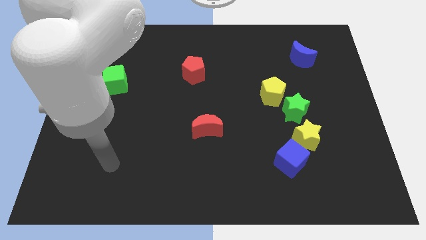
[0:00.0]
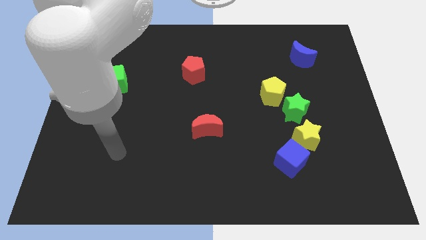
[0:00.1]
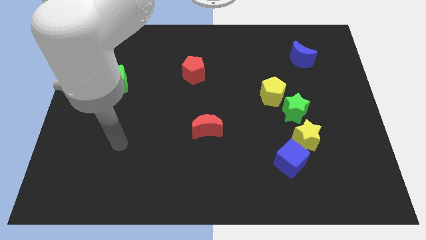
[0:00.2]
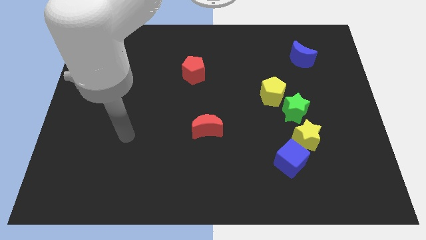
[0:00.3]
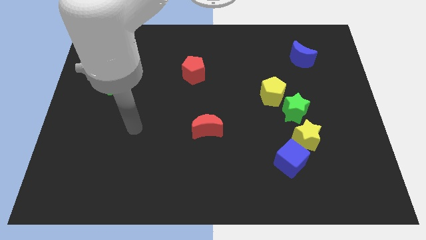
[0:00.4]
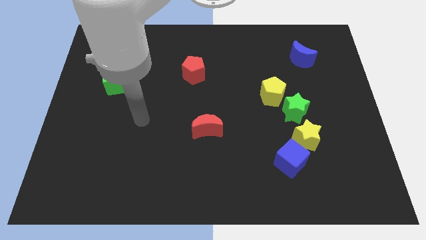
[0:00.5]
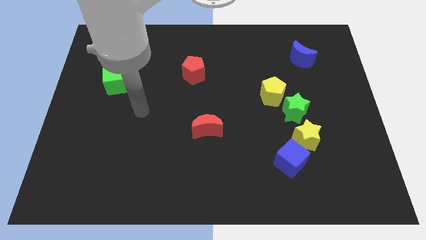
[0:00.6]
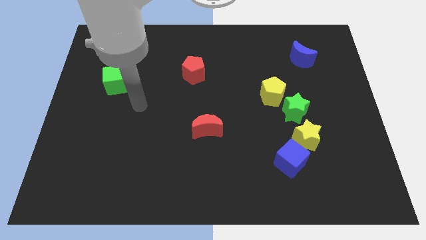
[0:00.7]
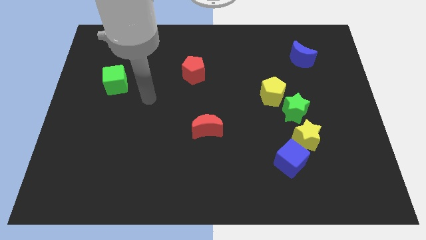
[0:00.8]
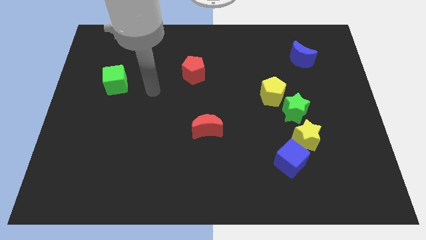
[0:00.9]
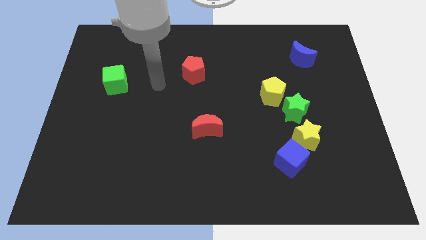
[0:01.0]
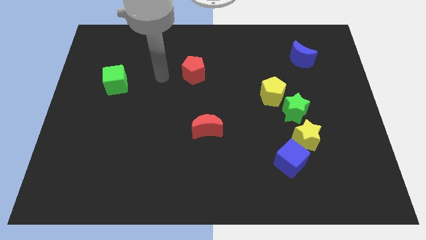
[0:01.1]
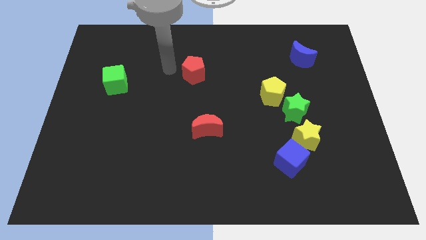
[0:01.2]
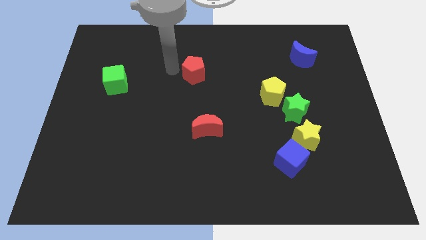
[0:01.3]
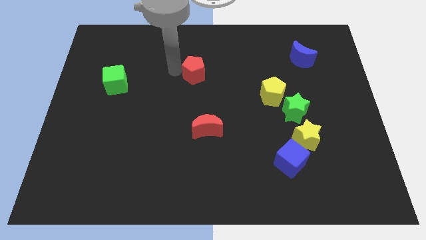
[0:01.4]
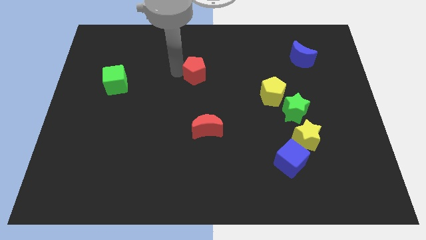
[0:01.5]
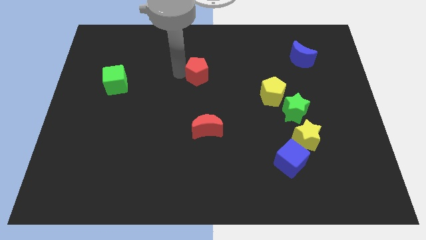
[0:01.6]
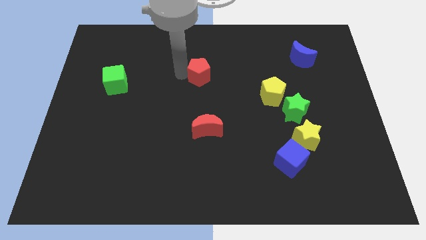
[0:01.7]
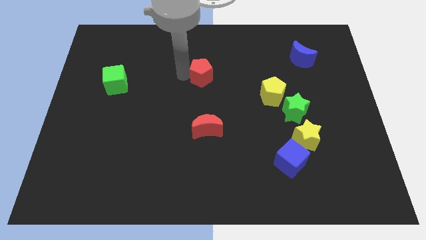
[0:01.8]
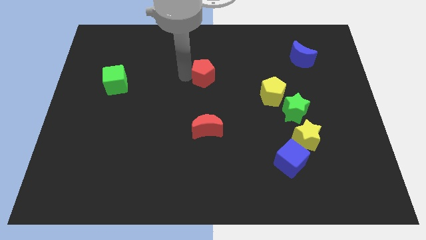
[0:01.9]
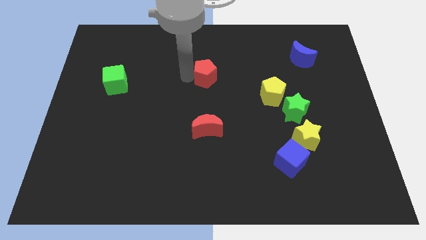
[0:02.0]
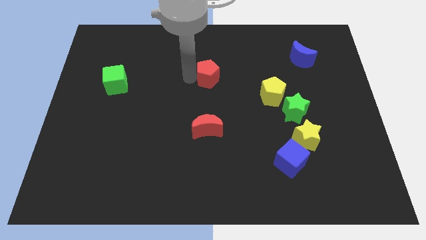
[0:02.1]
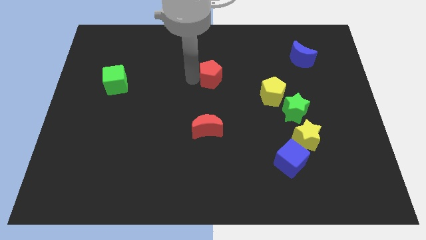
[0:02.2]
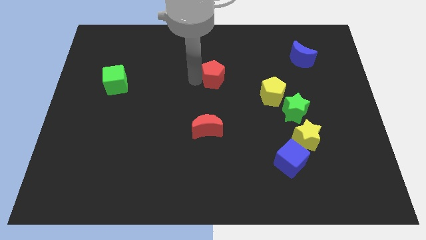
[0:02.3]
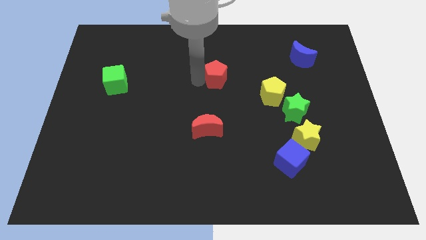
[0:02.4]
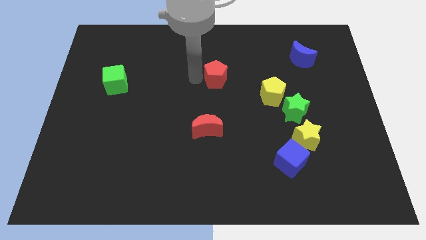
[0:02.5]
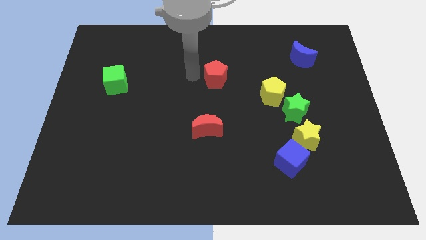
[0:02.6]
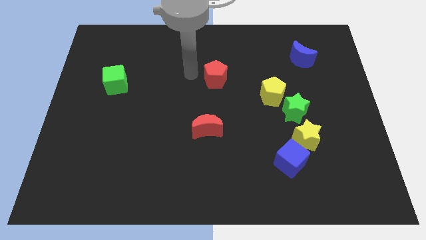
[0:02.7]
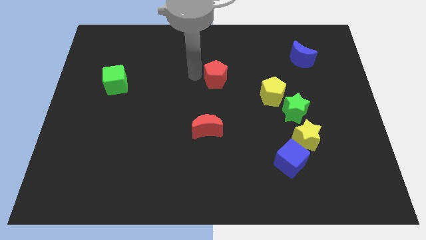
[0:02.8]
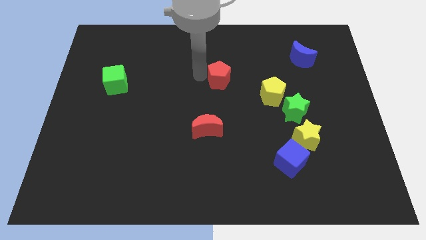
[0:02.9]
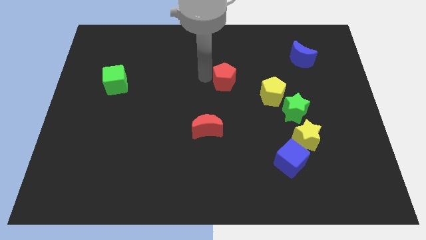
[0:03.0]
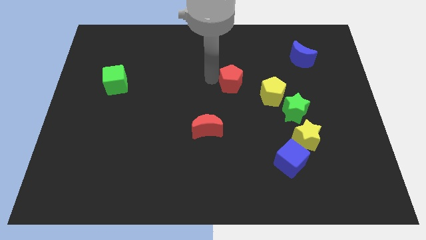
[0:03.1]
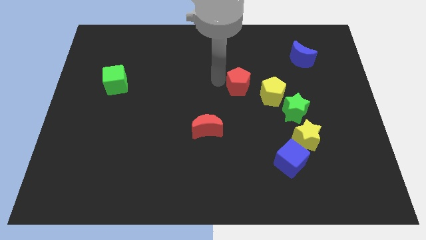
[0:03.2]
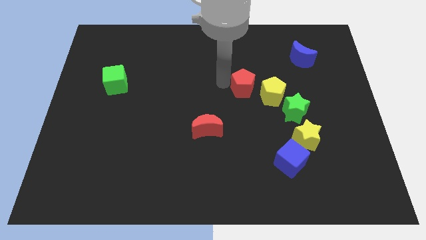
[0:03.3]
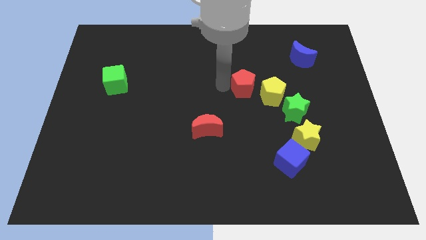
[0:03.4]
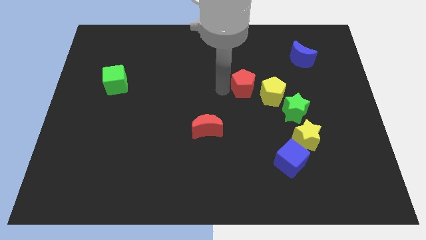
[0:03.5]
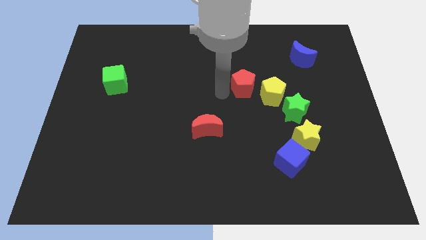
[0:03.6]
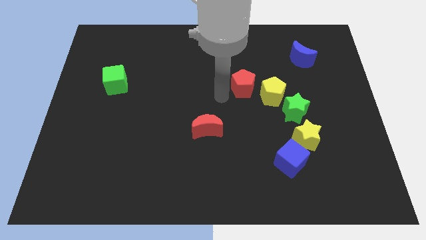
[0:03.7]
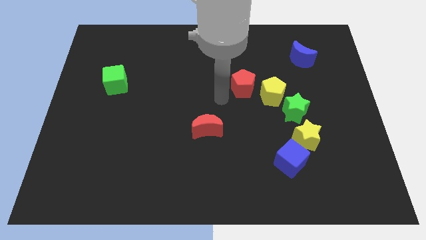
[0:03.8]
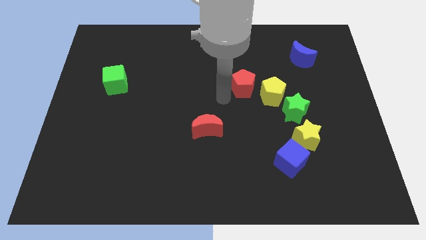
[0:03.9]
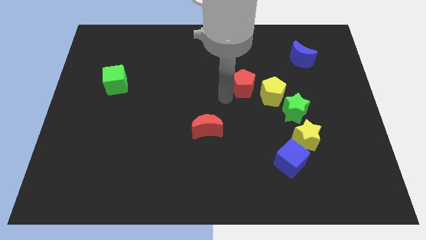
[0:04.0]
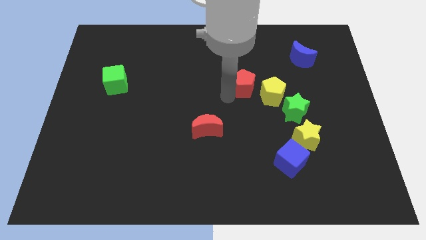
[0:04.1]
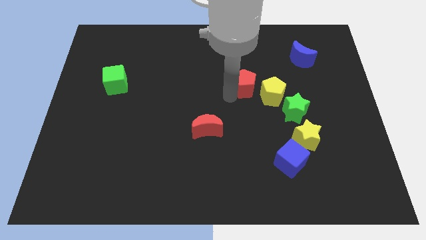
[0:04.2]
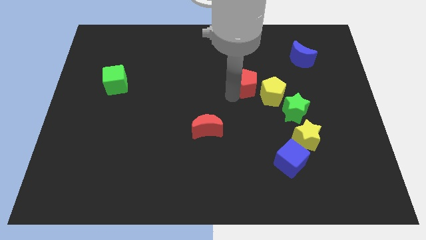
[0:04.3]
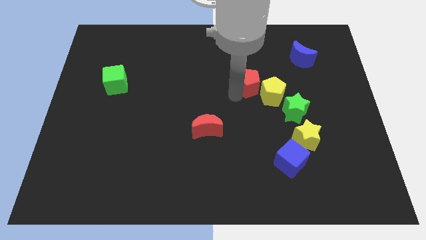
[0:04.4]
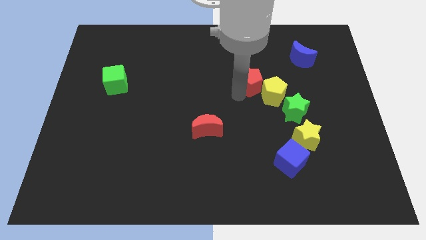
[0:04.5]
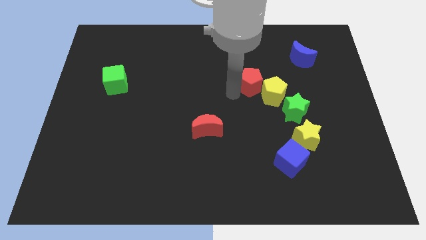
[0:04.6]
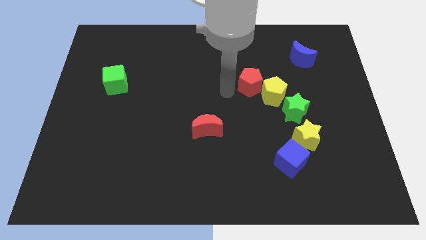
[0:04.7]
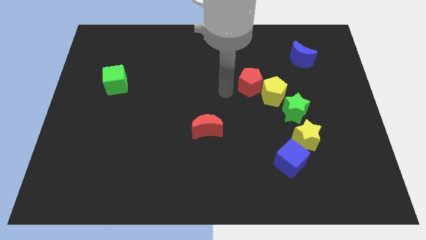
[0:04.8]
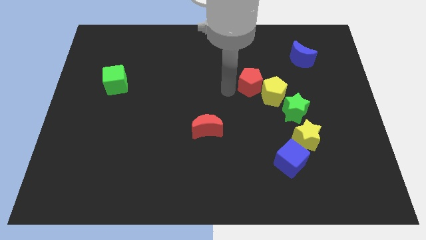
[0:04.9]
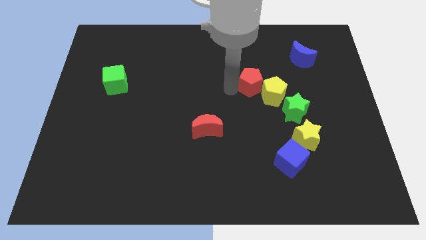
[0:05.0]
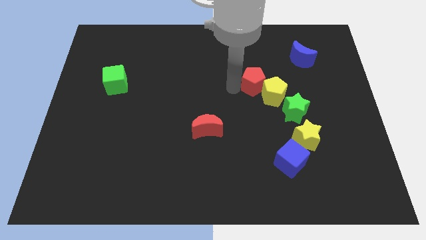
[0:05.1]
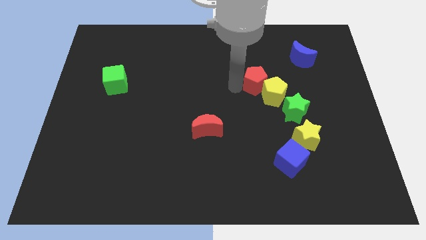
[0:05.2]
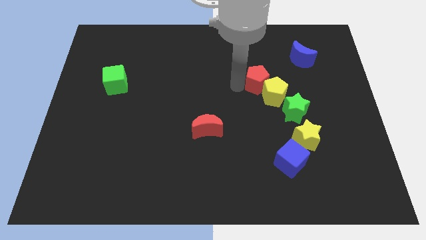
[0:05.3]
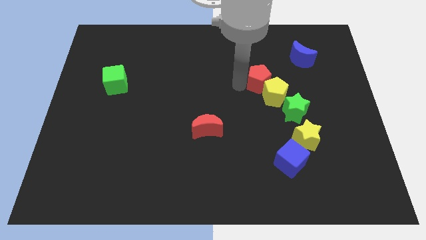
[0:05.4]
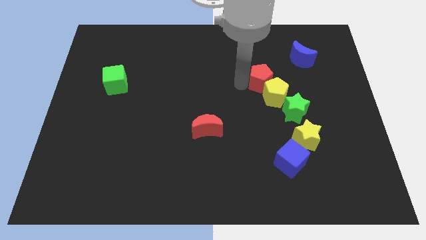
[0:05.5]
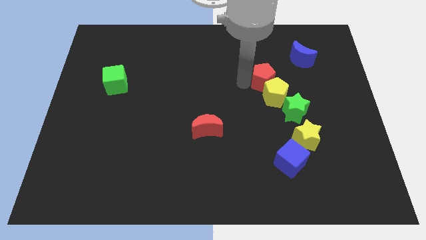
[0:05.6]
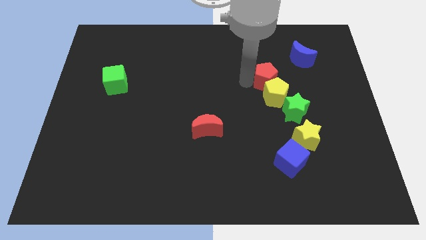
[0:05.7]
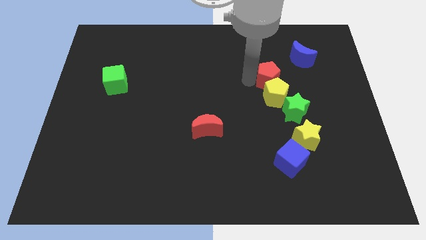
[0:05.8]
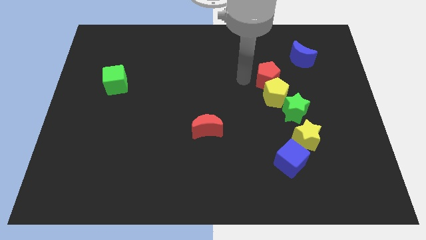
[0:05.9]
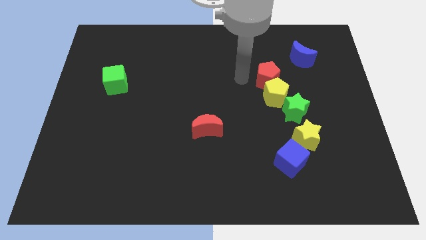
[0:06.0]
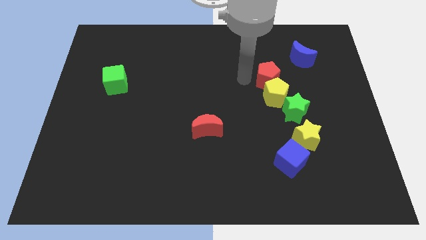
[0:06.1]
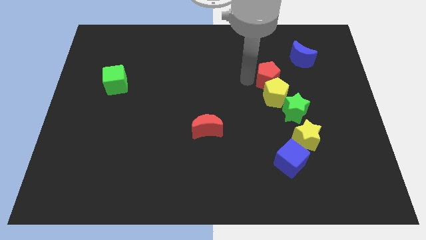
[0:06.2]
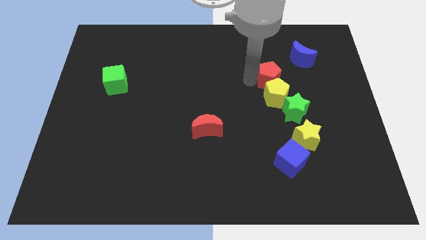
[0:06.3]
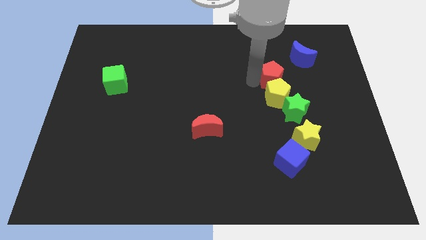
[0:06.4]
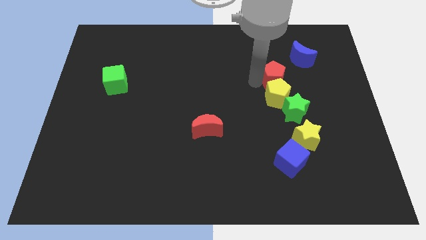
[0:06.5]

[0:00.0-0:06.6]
slide the red pentagon to the right

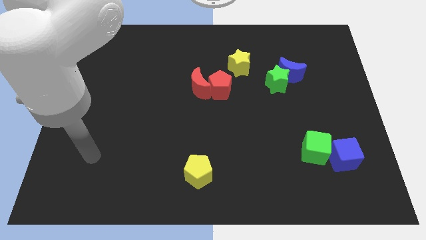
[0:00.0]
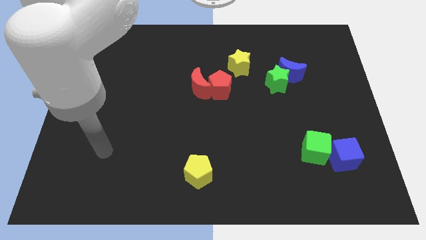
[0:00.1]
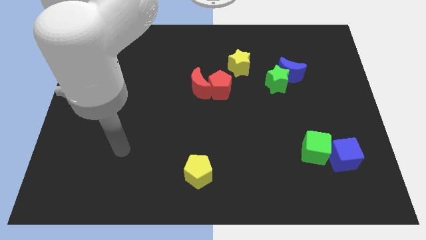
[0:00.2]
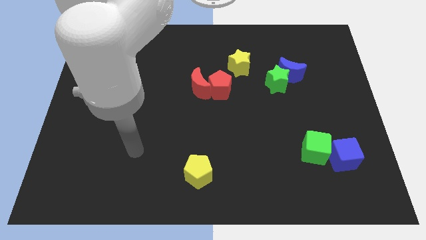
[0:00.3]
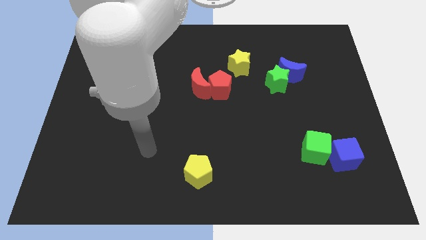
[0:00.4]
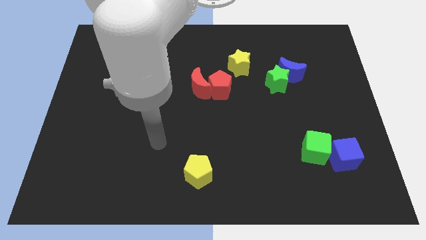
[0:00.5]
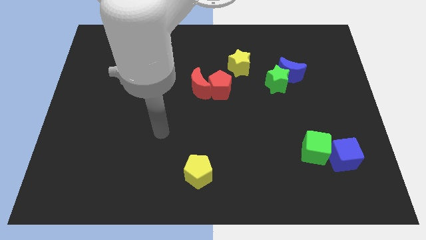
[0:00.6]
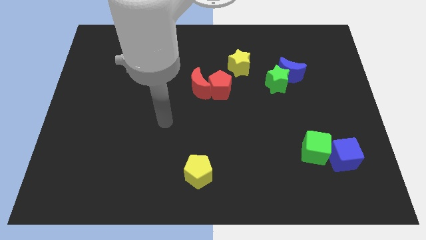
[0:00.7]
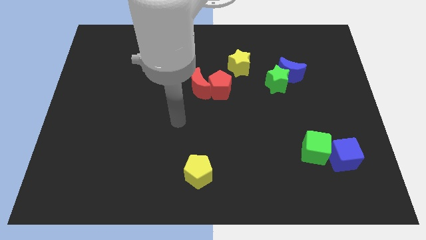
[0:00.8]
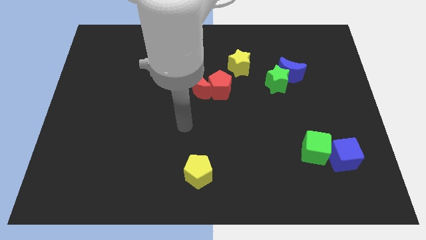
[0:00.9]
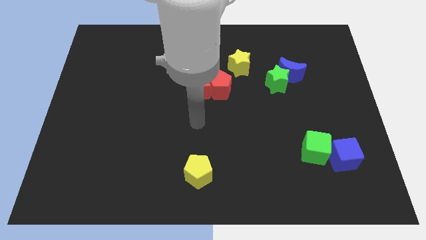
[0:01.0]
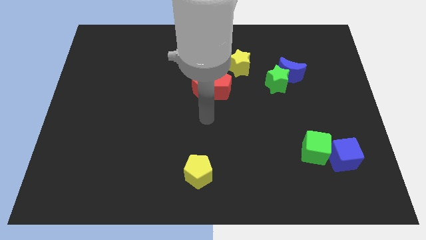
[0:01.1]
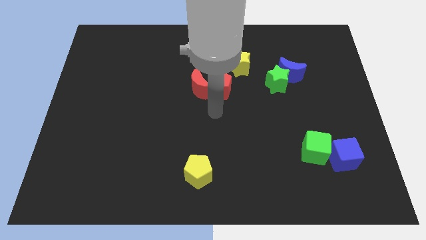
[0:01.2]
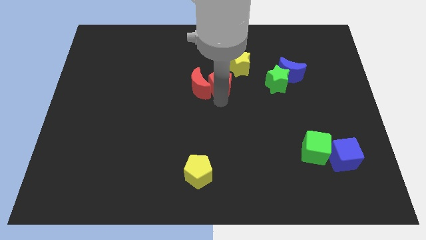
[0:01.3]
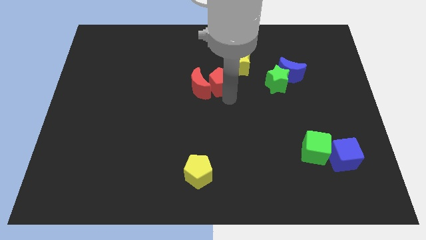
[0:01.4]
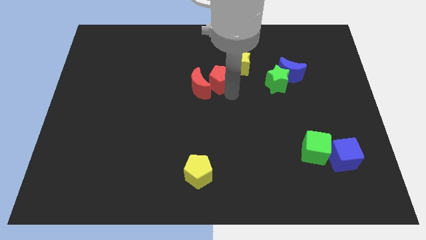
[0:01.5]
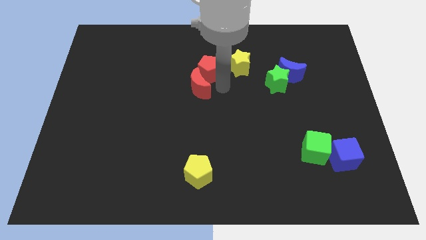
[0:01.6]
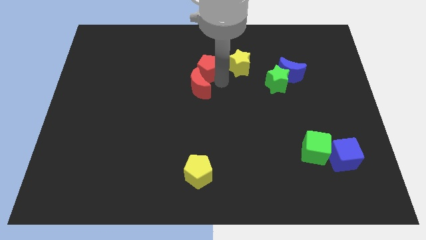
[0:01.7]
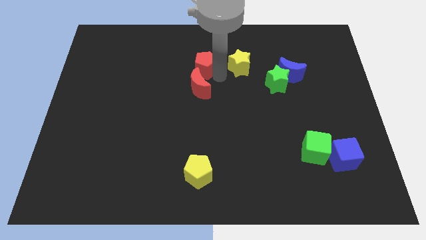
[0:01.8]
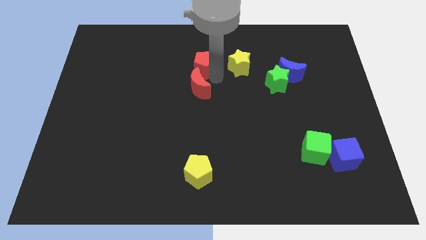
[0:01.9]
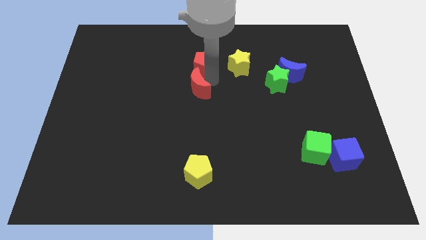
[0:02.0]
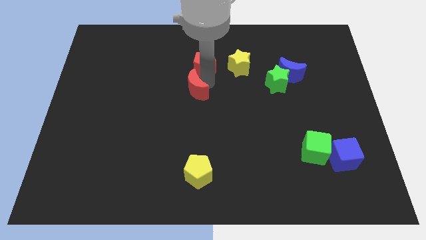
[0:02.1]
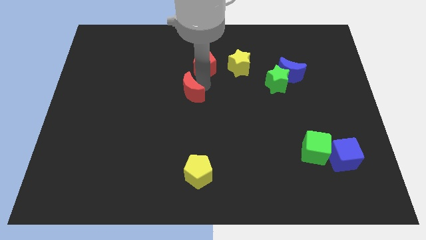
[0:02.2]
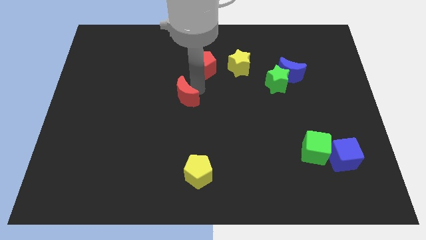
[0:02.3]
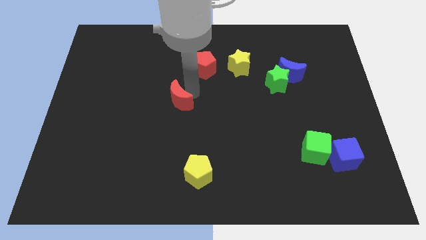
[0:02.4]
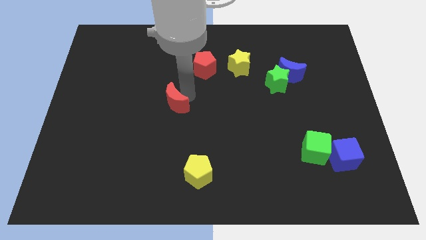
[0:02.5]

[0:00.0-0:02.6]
move the red moon down and left a bit
